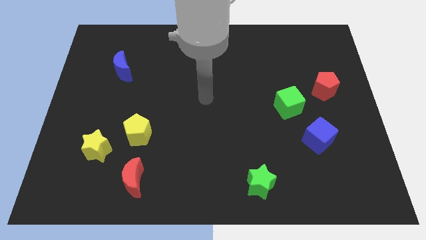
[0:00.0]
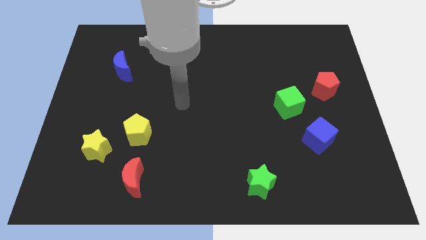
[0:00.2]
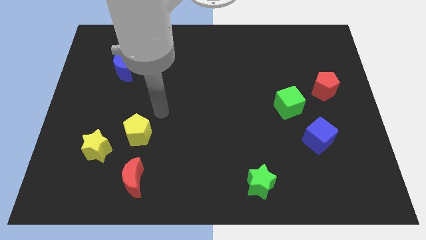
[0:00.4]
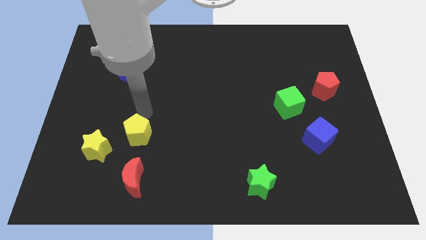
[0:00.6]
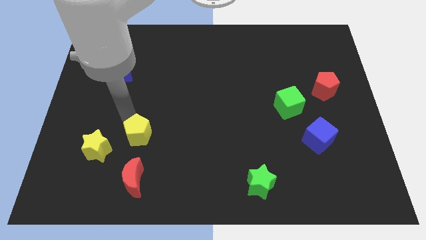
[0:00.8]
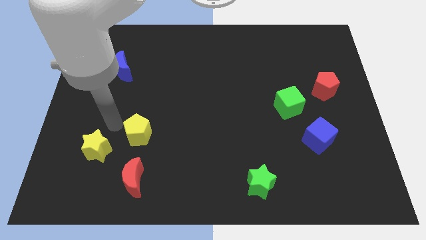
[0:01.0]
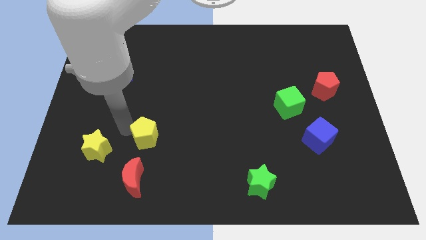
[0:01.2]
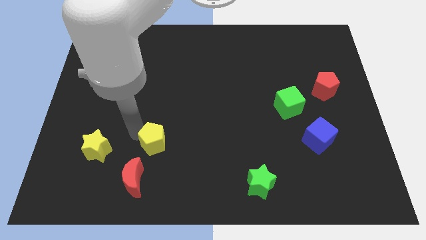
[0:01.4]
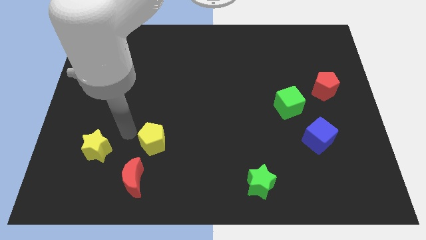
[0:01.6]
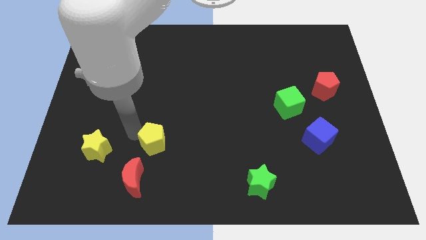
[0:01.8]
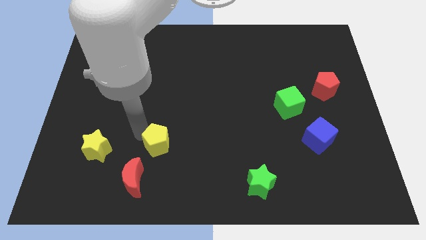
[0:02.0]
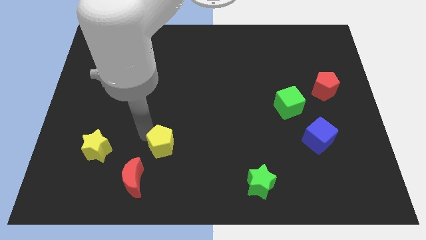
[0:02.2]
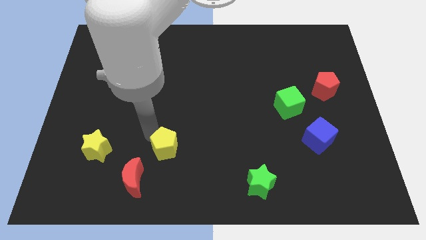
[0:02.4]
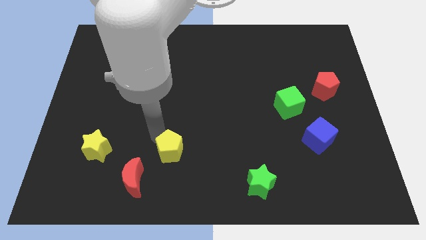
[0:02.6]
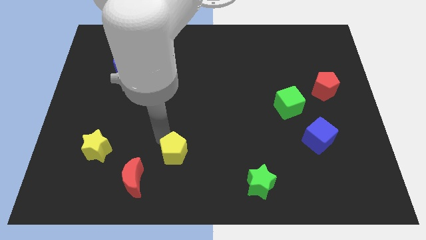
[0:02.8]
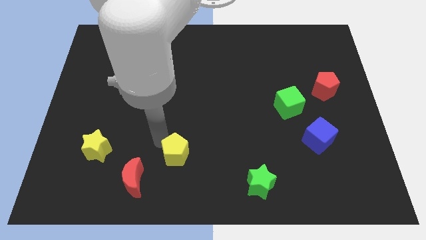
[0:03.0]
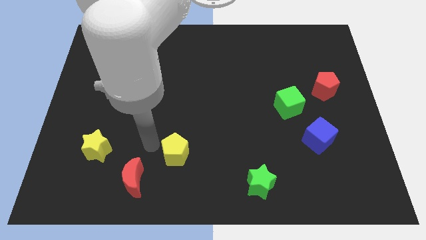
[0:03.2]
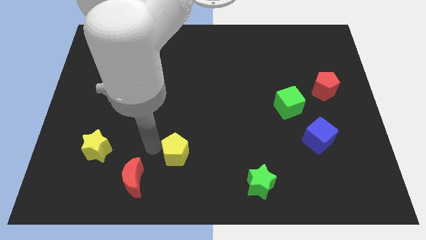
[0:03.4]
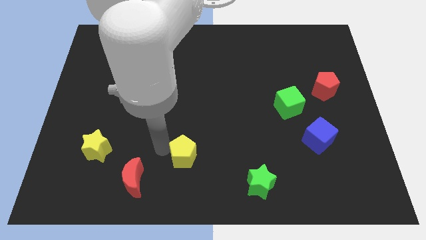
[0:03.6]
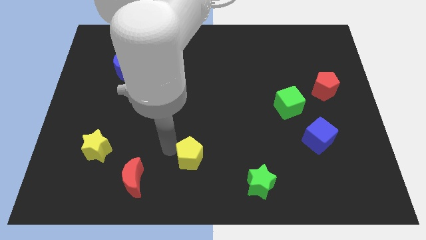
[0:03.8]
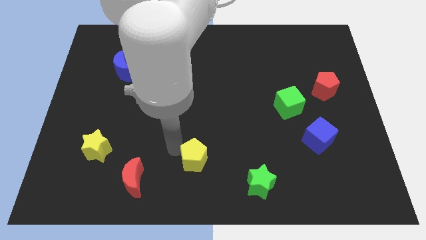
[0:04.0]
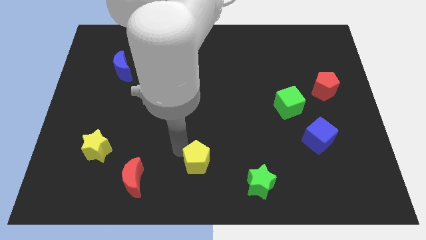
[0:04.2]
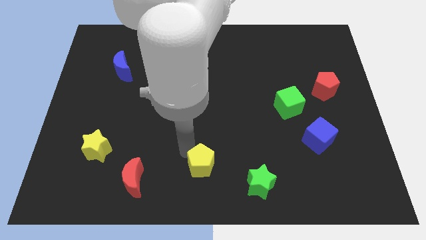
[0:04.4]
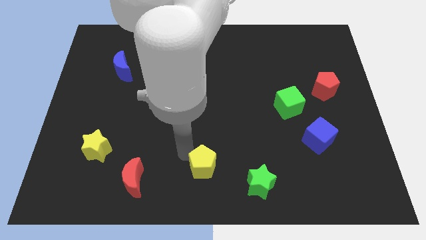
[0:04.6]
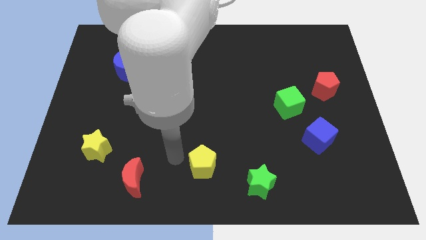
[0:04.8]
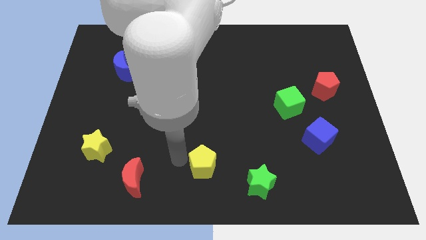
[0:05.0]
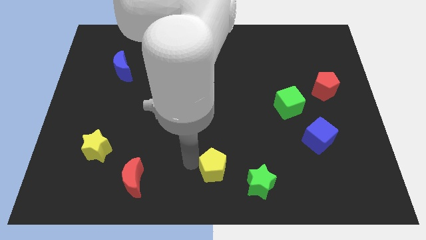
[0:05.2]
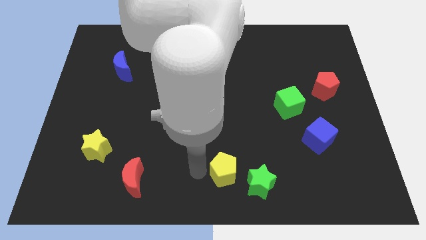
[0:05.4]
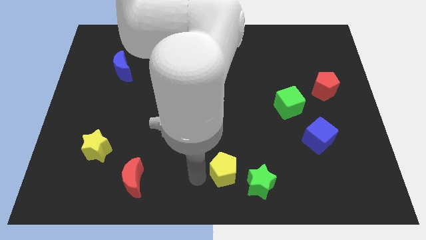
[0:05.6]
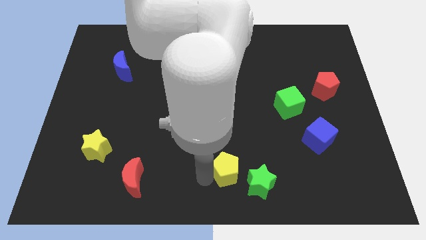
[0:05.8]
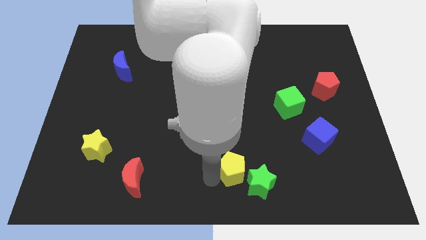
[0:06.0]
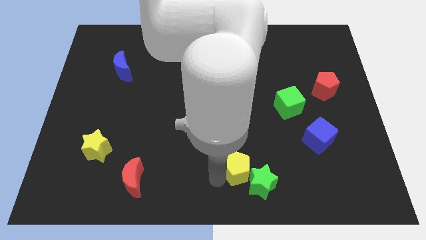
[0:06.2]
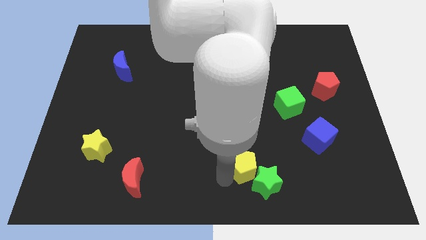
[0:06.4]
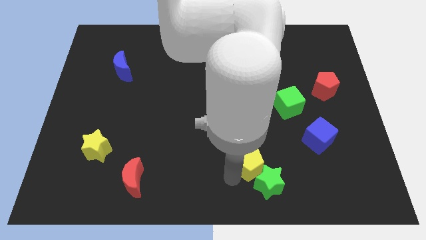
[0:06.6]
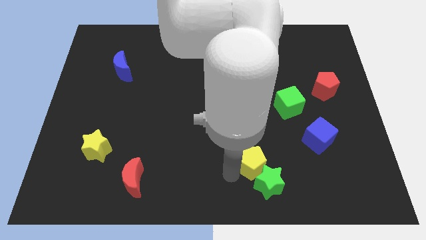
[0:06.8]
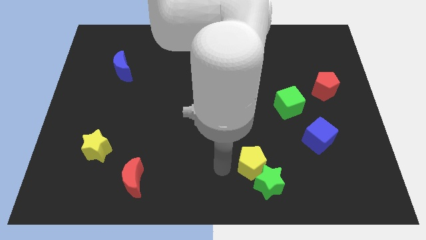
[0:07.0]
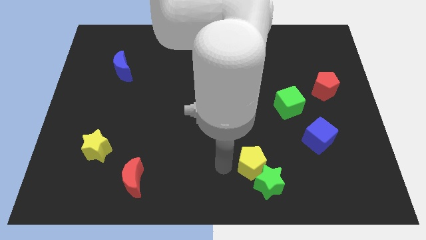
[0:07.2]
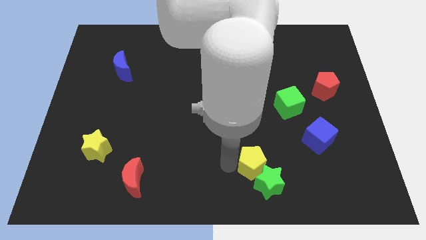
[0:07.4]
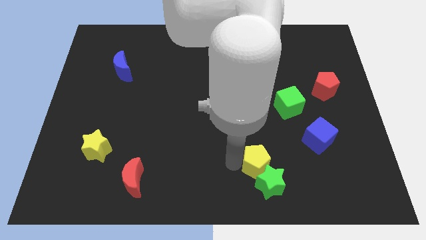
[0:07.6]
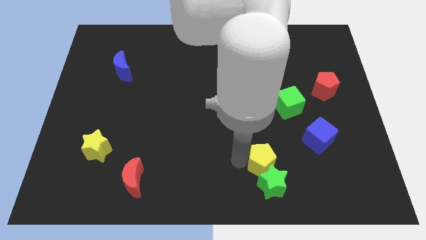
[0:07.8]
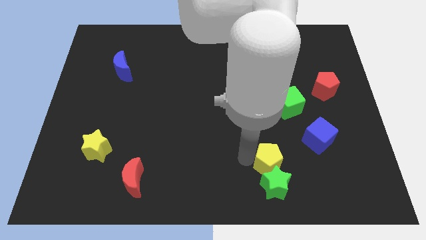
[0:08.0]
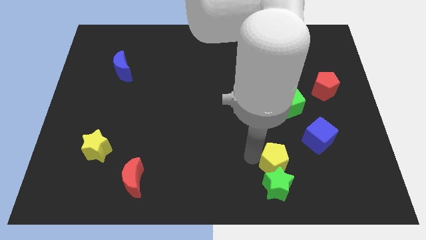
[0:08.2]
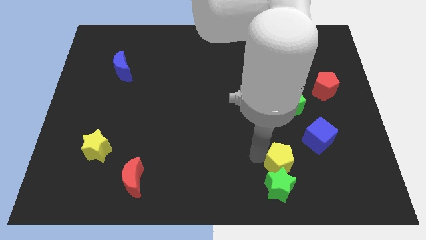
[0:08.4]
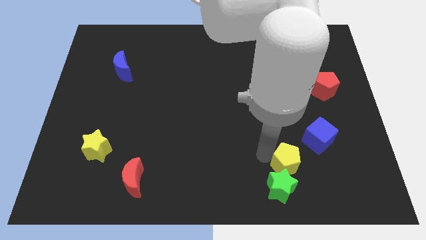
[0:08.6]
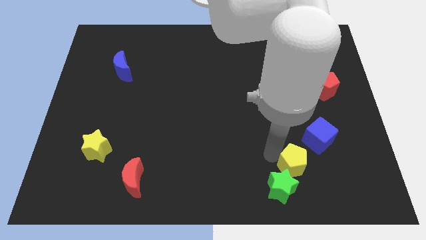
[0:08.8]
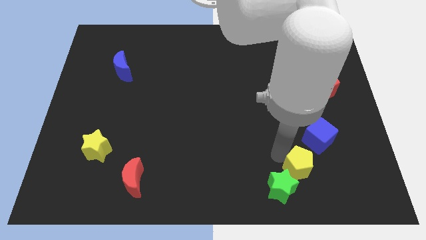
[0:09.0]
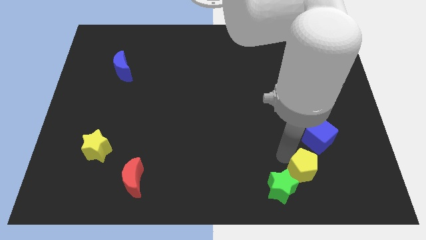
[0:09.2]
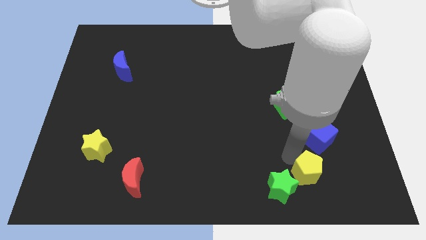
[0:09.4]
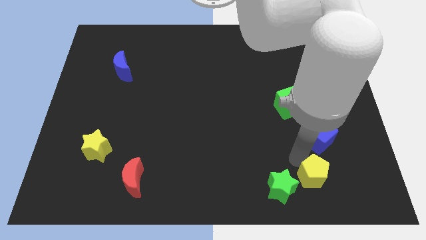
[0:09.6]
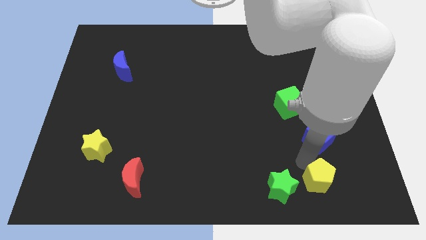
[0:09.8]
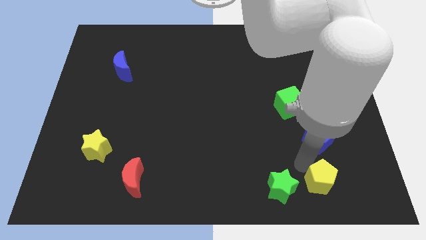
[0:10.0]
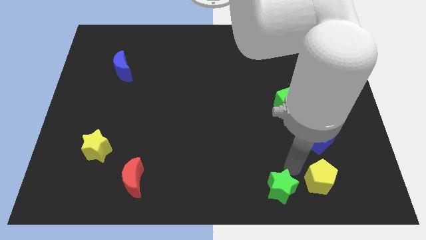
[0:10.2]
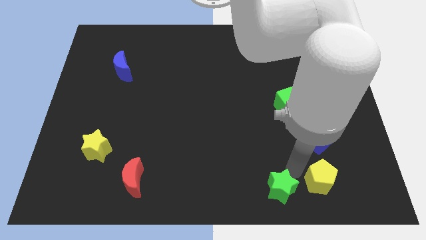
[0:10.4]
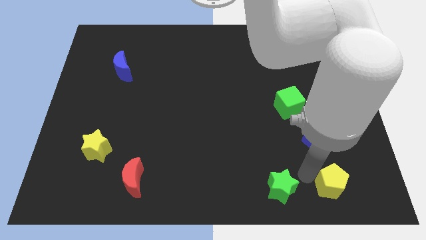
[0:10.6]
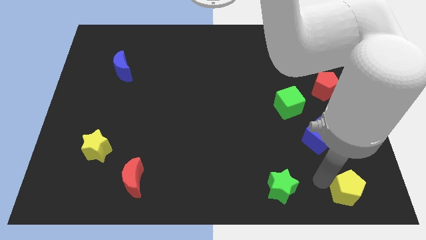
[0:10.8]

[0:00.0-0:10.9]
move the yellow pentagon to the bottom right of the board
